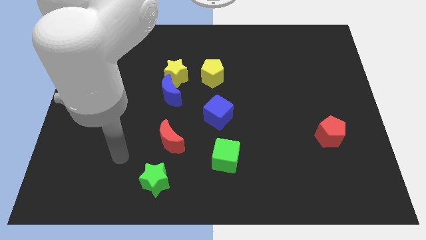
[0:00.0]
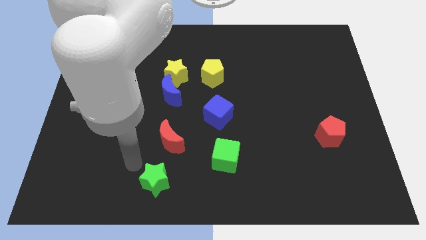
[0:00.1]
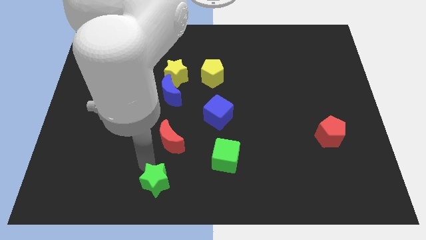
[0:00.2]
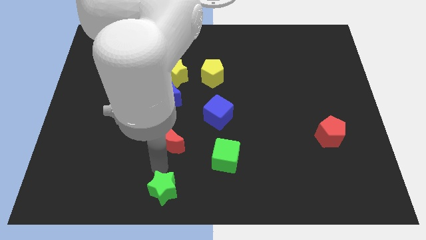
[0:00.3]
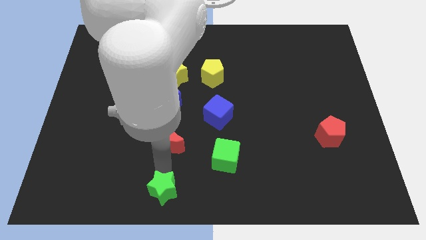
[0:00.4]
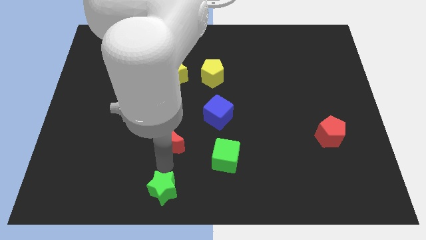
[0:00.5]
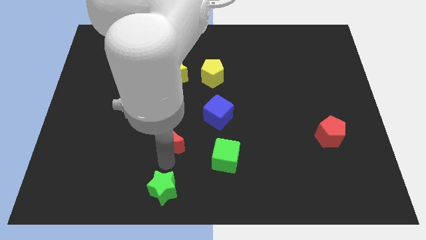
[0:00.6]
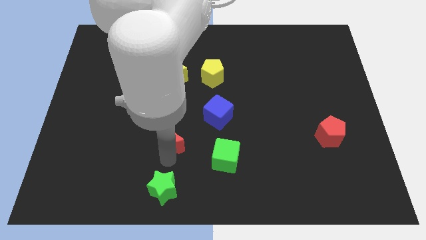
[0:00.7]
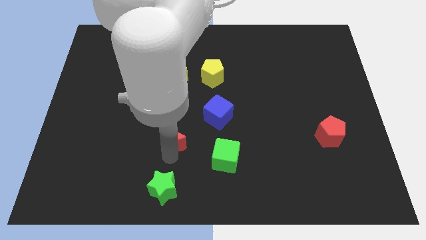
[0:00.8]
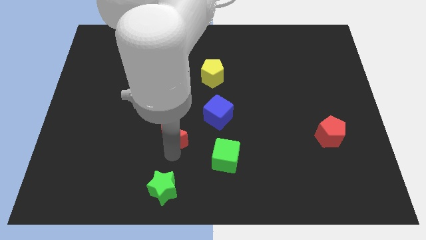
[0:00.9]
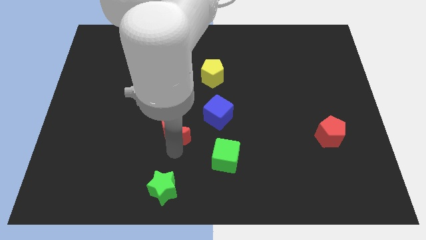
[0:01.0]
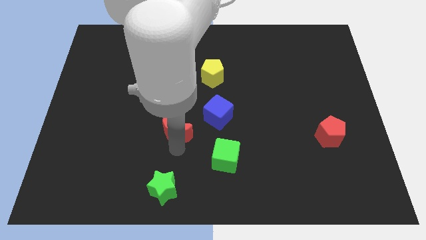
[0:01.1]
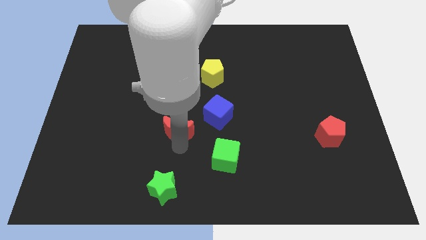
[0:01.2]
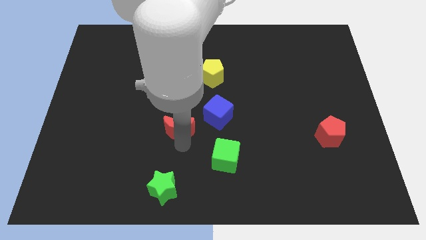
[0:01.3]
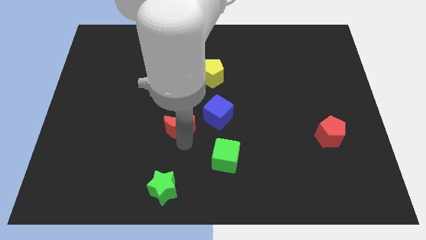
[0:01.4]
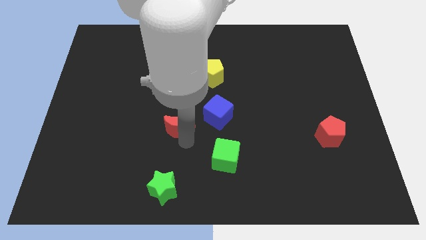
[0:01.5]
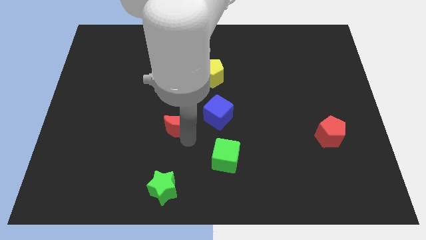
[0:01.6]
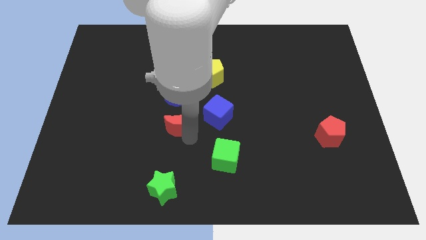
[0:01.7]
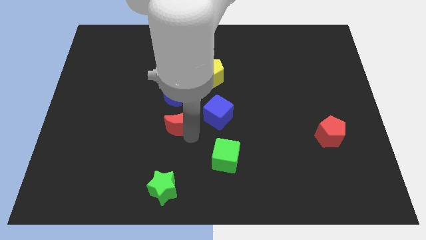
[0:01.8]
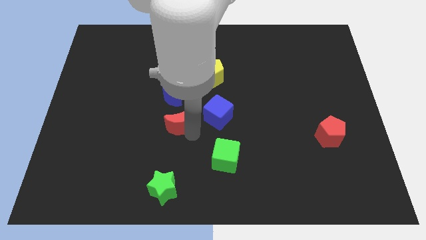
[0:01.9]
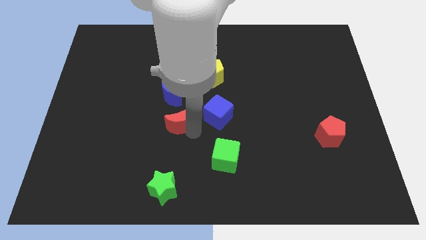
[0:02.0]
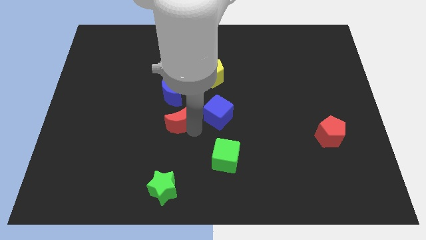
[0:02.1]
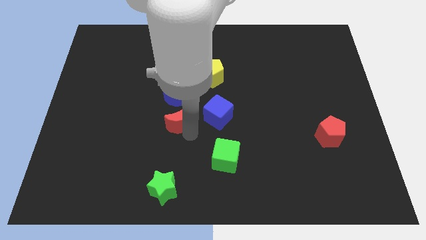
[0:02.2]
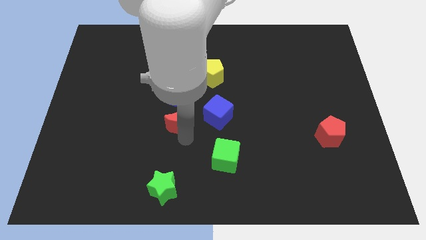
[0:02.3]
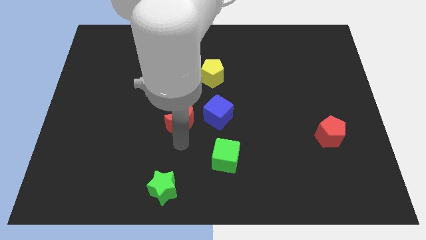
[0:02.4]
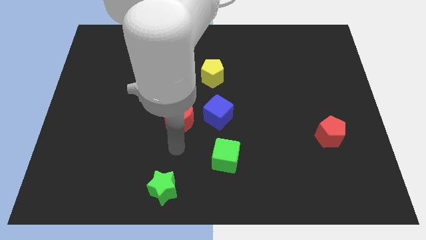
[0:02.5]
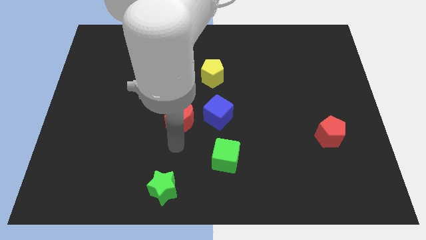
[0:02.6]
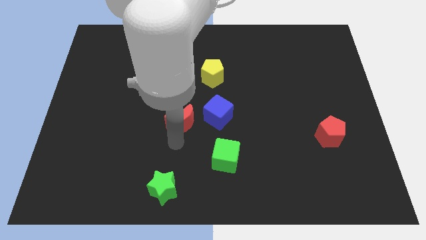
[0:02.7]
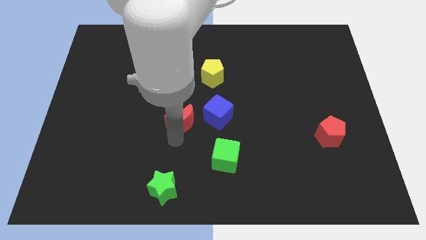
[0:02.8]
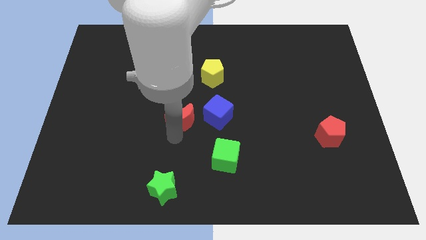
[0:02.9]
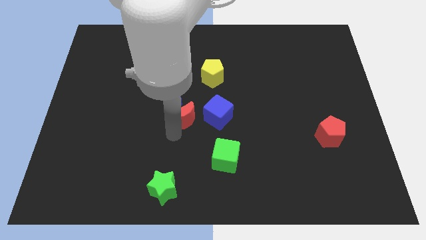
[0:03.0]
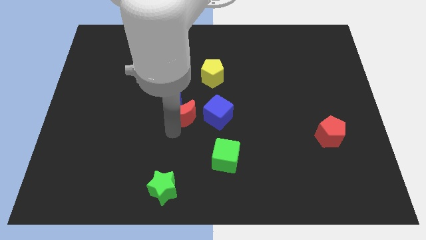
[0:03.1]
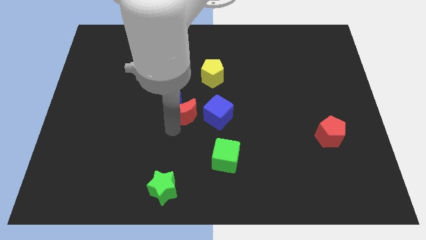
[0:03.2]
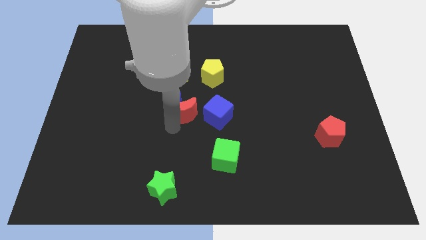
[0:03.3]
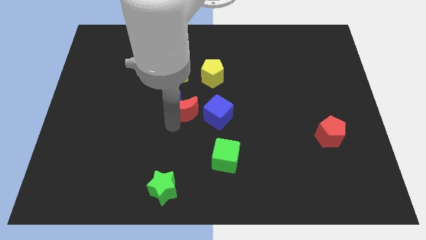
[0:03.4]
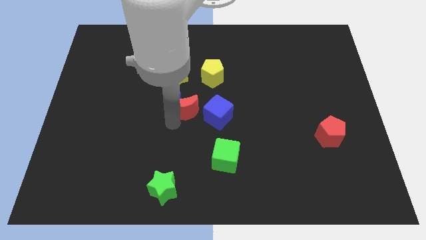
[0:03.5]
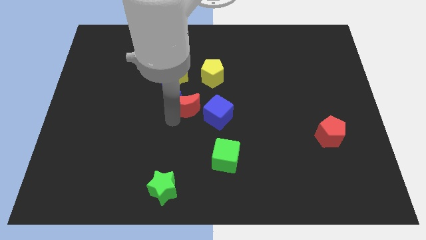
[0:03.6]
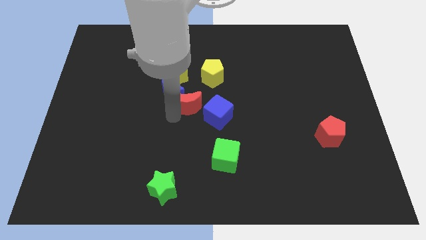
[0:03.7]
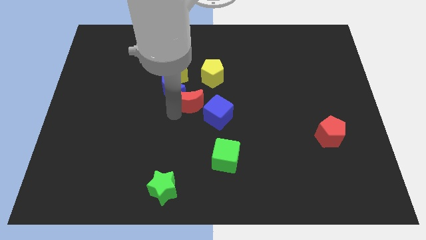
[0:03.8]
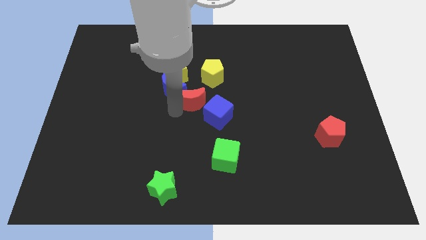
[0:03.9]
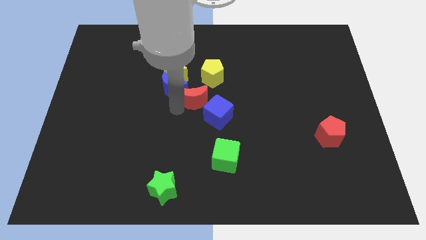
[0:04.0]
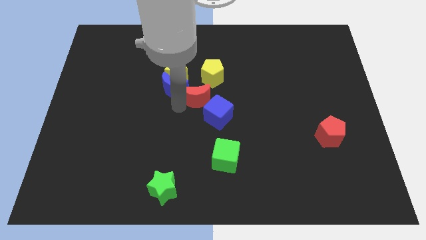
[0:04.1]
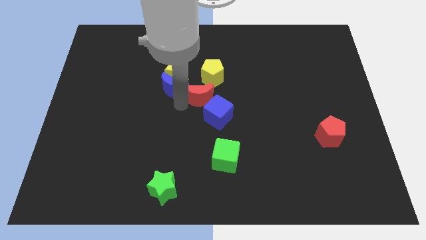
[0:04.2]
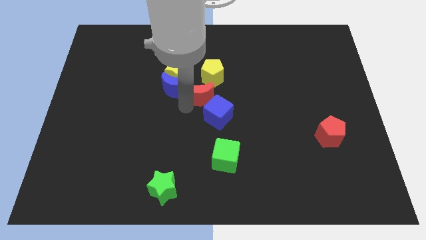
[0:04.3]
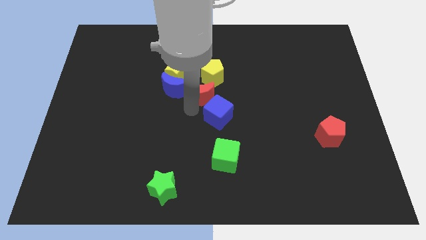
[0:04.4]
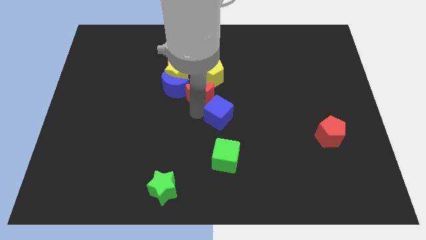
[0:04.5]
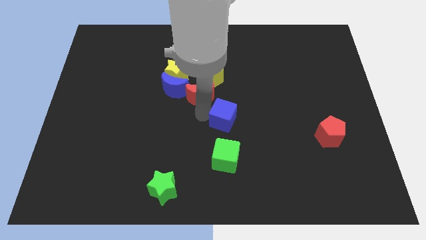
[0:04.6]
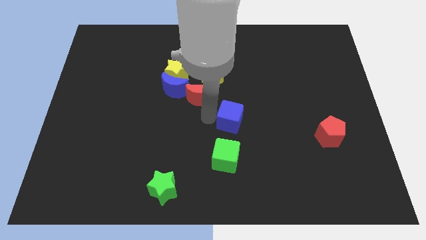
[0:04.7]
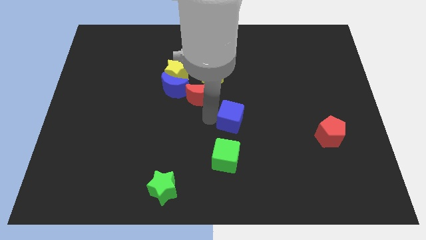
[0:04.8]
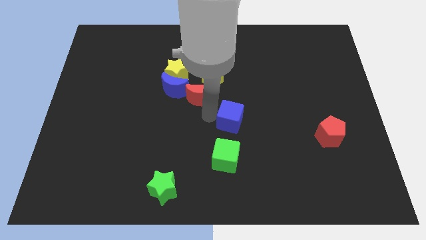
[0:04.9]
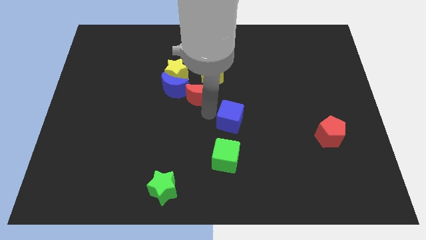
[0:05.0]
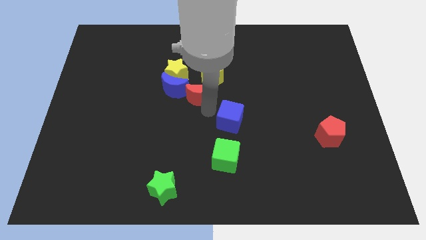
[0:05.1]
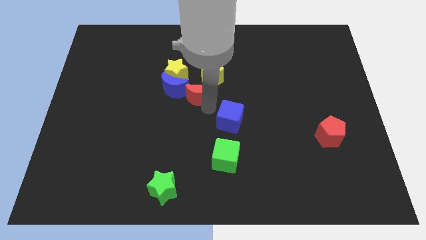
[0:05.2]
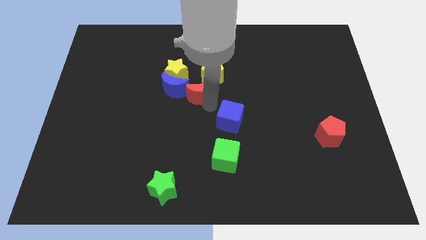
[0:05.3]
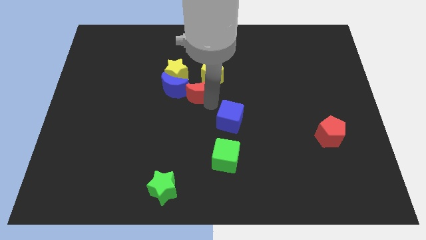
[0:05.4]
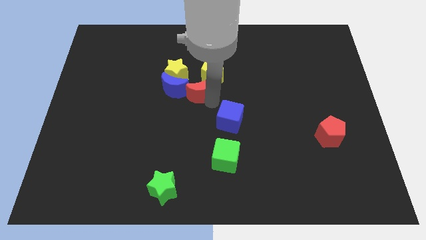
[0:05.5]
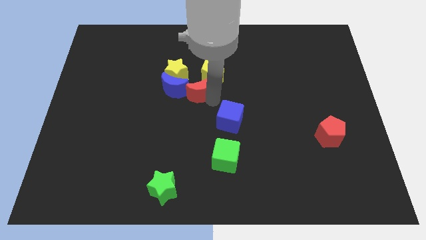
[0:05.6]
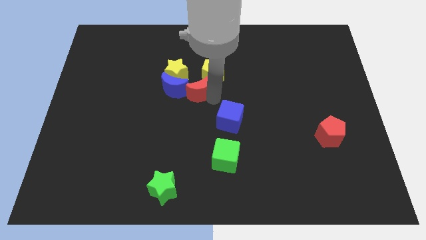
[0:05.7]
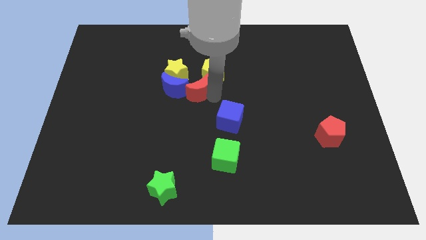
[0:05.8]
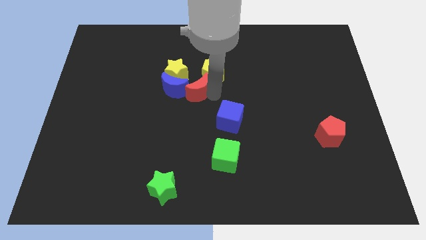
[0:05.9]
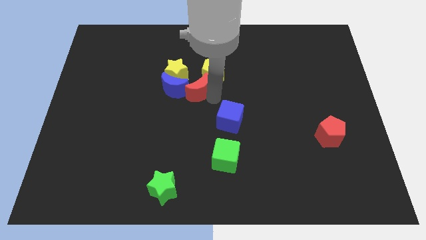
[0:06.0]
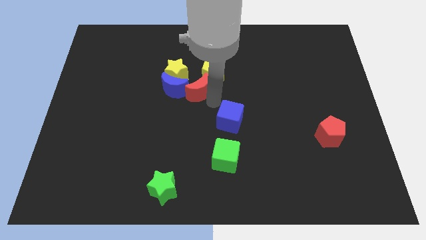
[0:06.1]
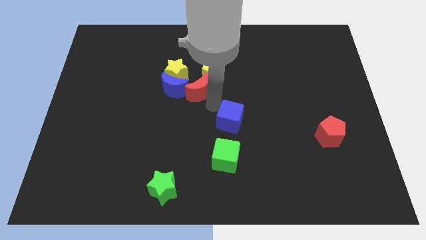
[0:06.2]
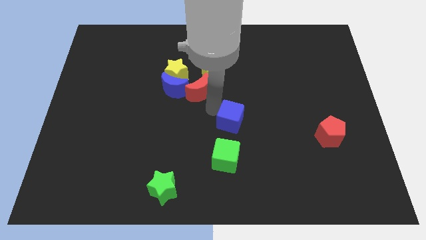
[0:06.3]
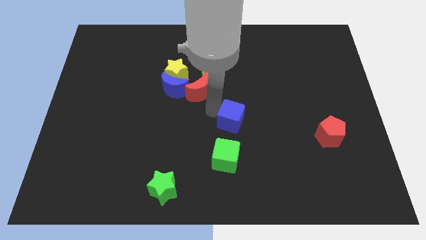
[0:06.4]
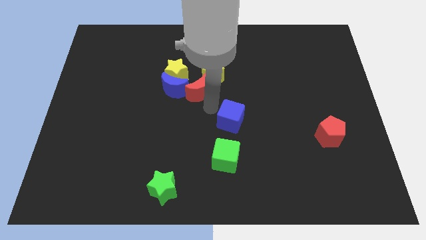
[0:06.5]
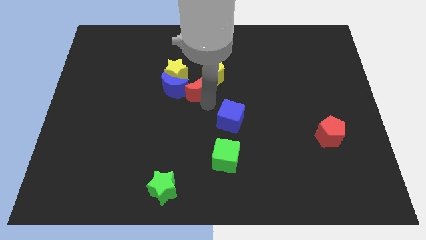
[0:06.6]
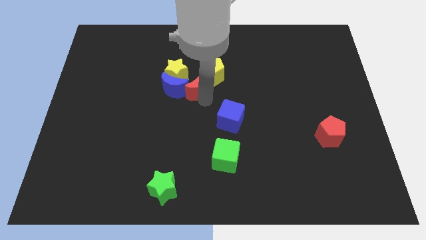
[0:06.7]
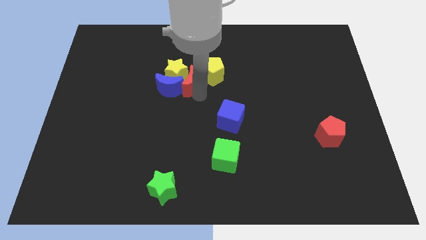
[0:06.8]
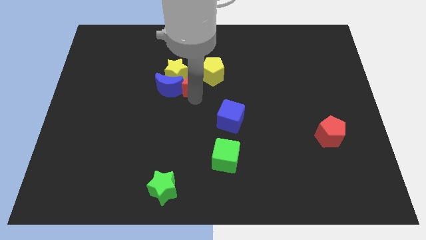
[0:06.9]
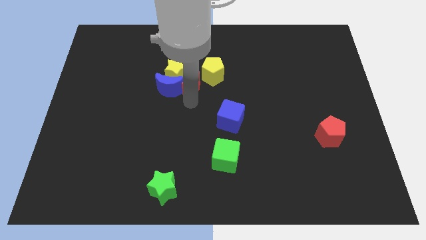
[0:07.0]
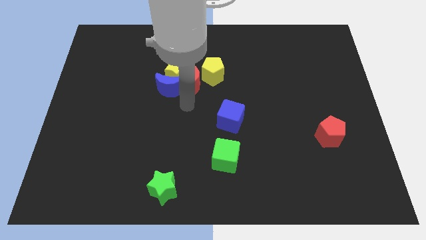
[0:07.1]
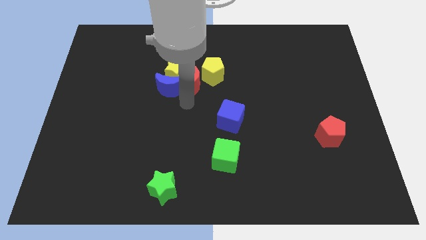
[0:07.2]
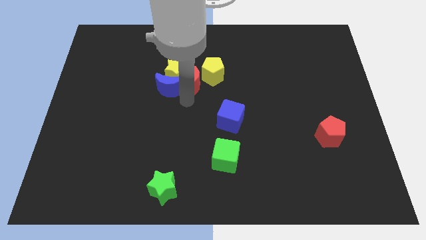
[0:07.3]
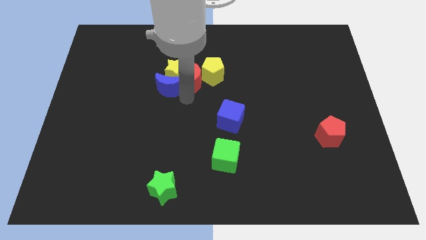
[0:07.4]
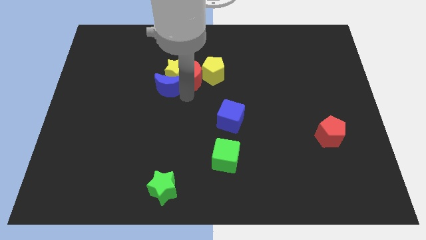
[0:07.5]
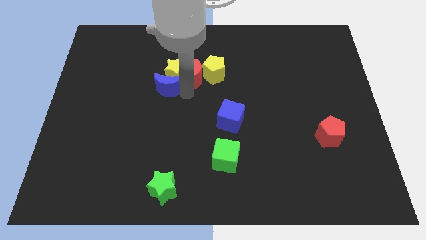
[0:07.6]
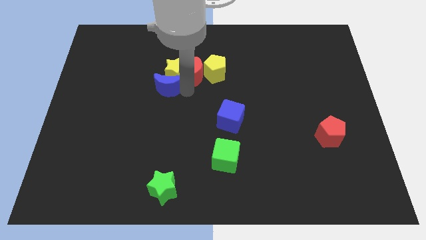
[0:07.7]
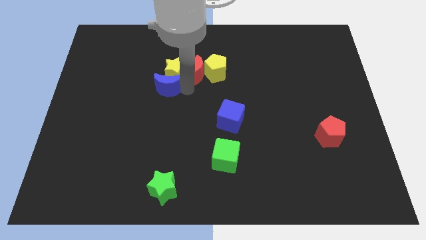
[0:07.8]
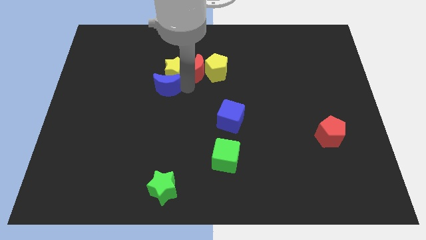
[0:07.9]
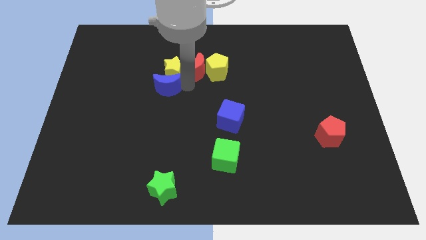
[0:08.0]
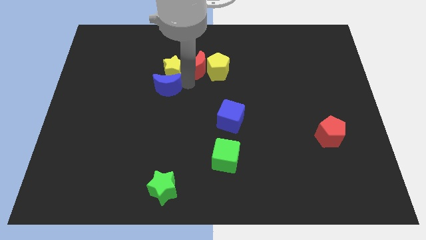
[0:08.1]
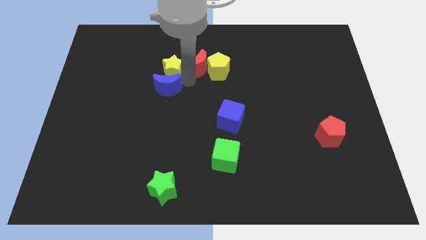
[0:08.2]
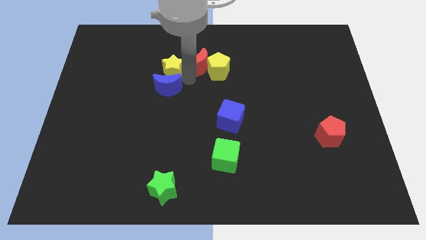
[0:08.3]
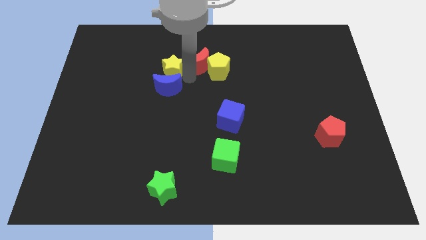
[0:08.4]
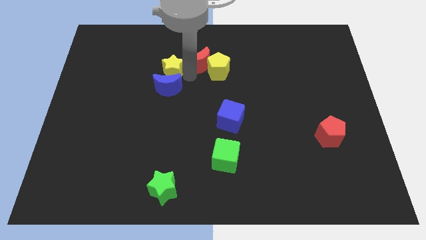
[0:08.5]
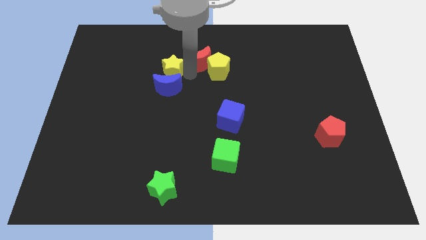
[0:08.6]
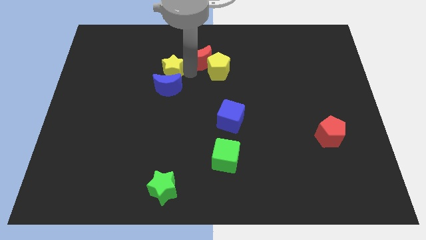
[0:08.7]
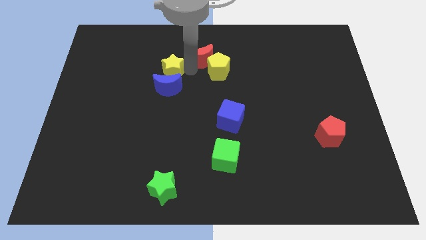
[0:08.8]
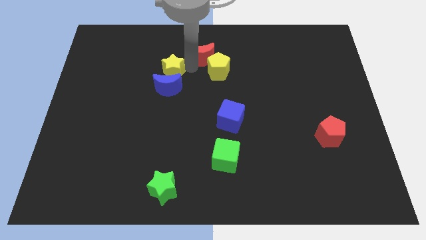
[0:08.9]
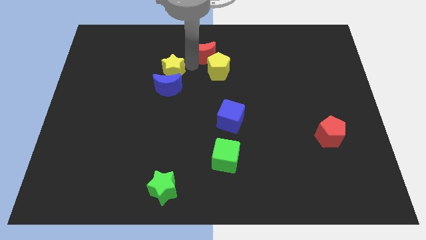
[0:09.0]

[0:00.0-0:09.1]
move the red moon to the top
